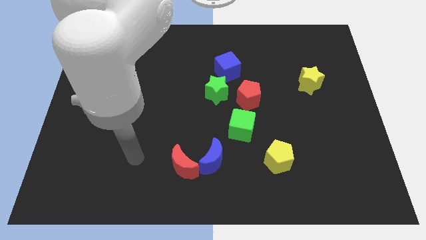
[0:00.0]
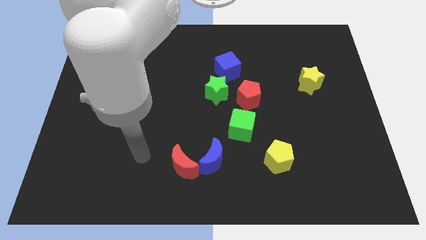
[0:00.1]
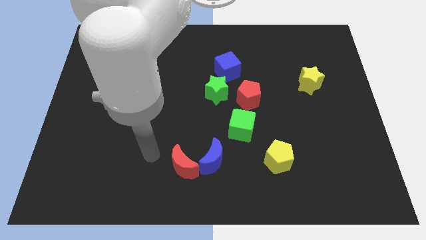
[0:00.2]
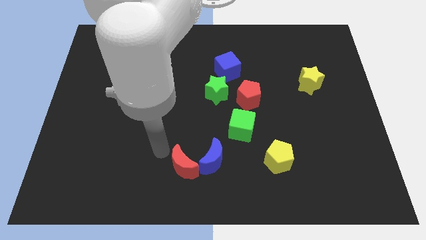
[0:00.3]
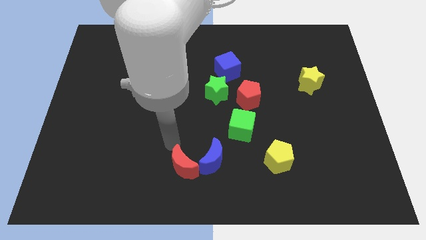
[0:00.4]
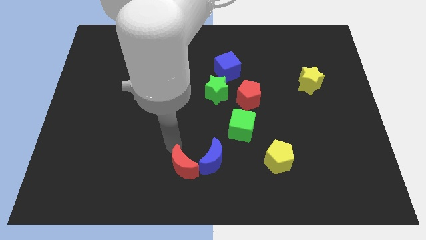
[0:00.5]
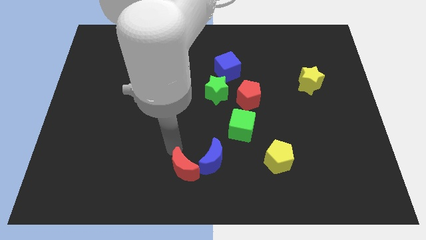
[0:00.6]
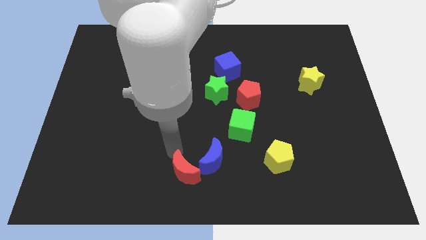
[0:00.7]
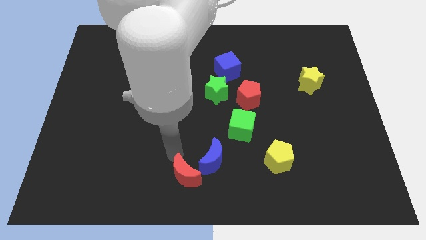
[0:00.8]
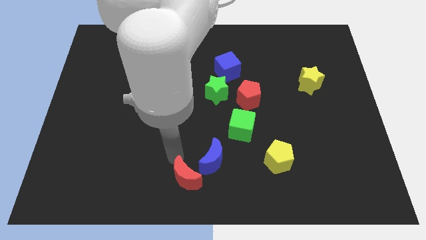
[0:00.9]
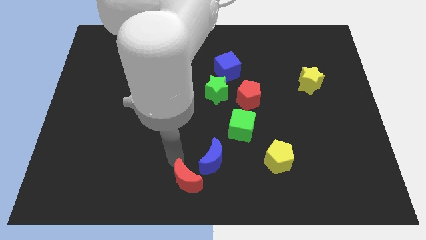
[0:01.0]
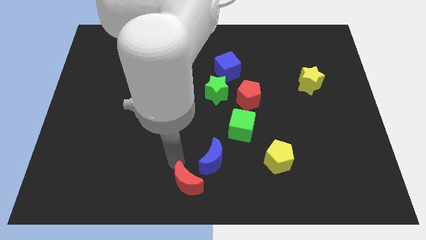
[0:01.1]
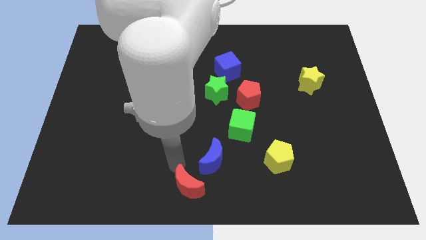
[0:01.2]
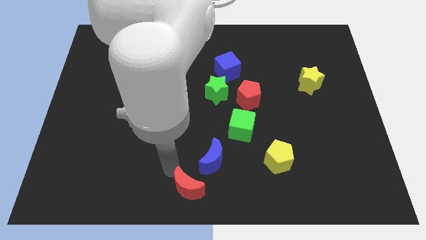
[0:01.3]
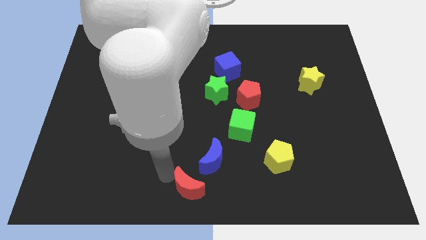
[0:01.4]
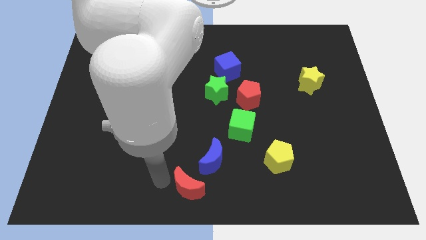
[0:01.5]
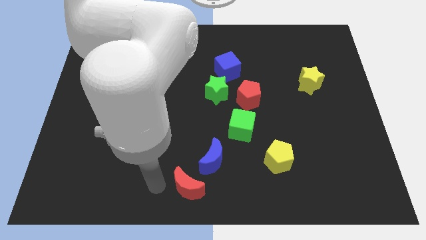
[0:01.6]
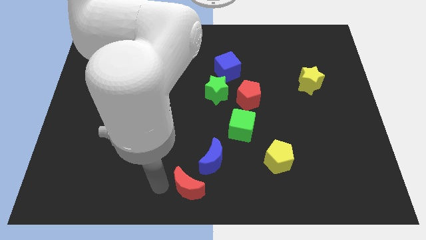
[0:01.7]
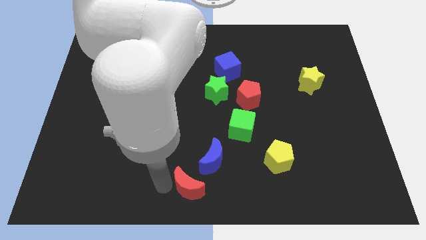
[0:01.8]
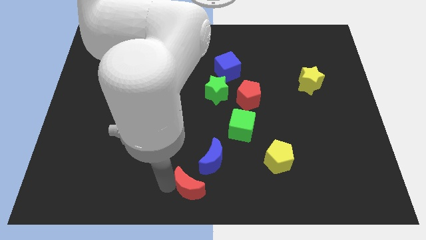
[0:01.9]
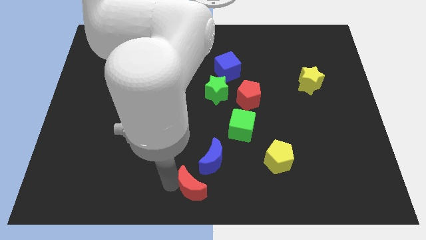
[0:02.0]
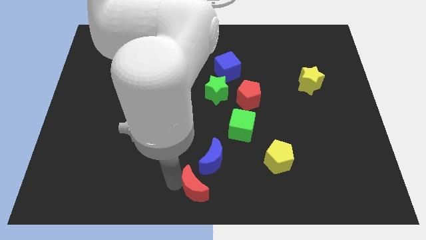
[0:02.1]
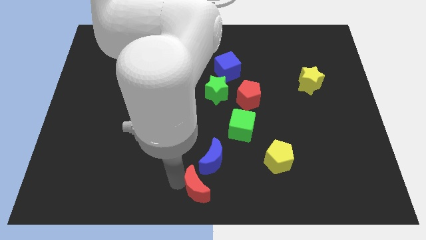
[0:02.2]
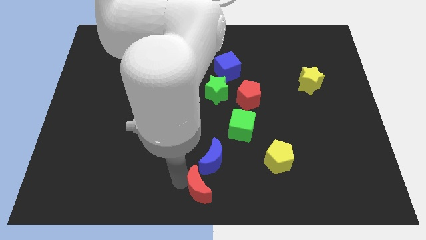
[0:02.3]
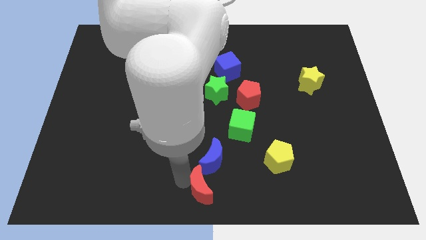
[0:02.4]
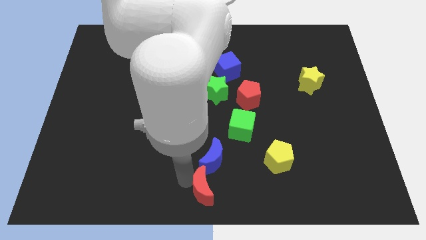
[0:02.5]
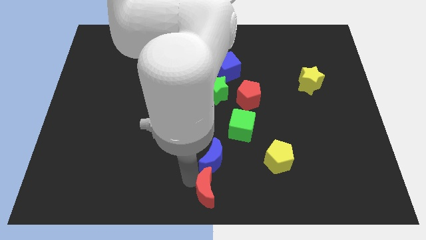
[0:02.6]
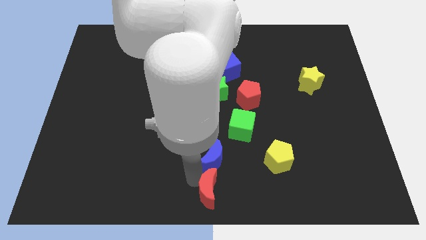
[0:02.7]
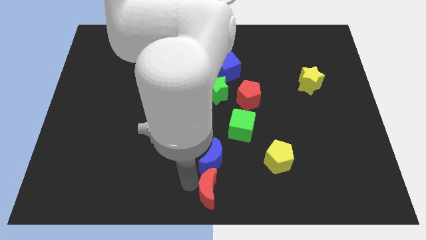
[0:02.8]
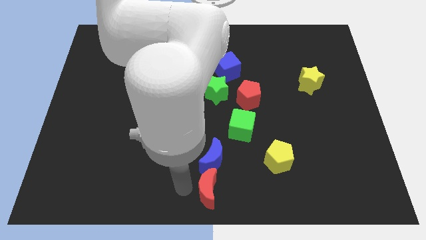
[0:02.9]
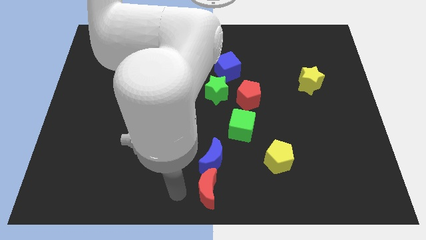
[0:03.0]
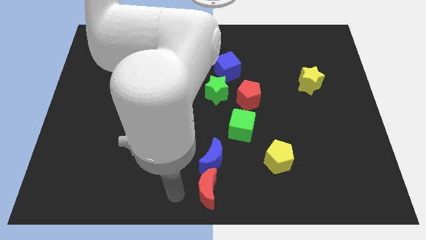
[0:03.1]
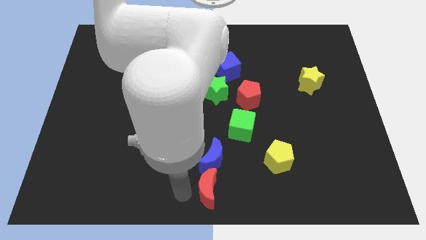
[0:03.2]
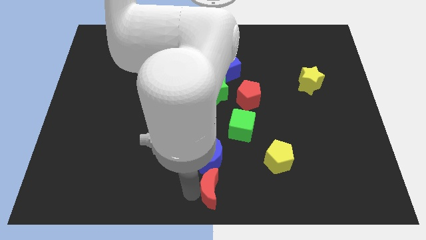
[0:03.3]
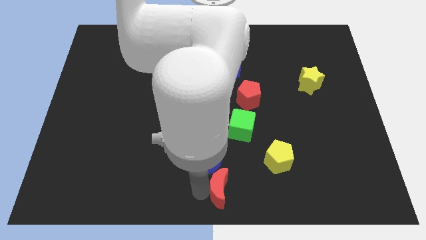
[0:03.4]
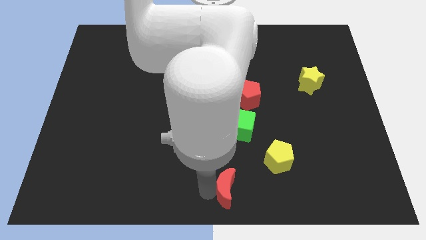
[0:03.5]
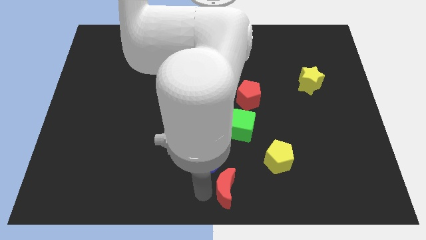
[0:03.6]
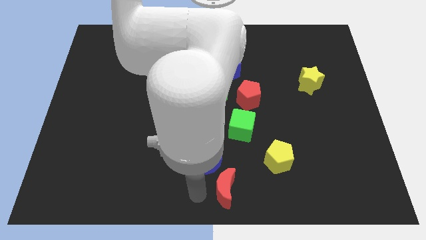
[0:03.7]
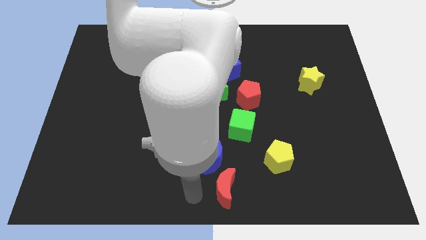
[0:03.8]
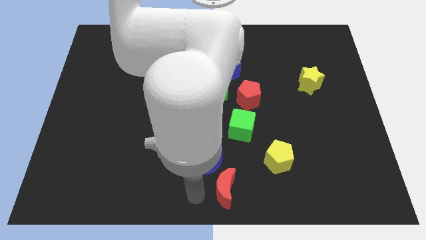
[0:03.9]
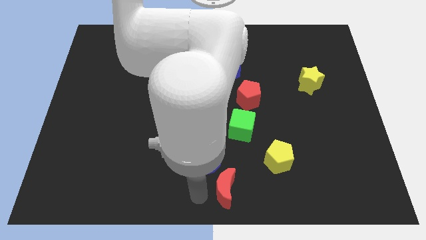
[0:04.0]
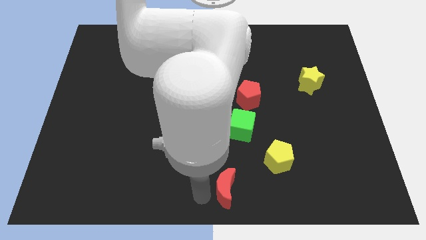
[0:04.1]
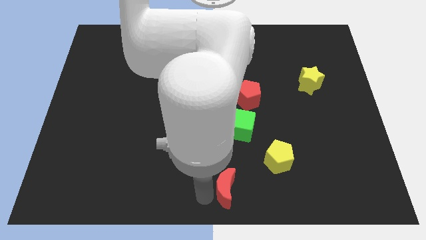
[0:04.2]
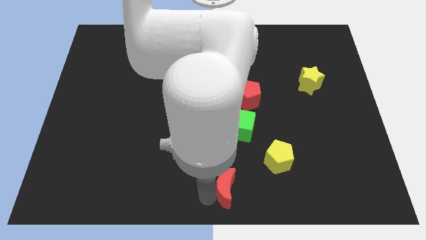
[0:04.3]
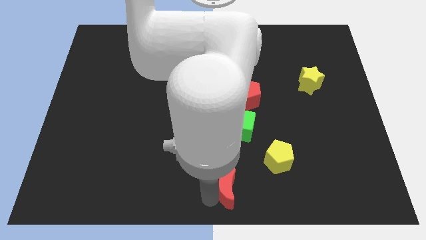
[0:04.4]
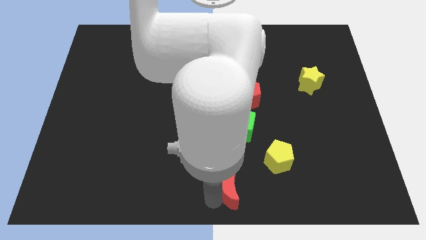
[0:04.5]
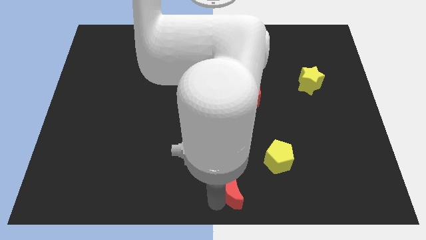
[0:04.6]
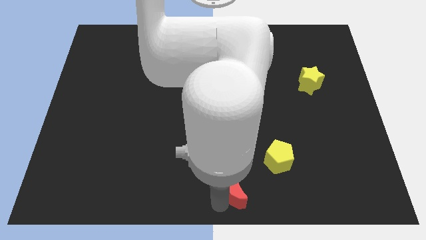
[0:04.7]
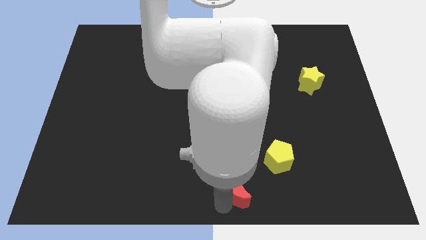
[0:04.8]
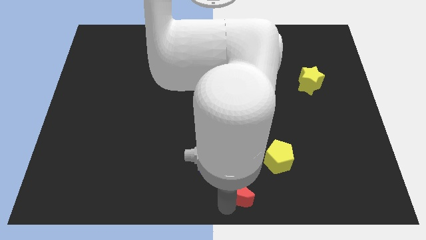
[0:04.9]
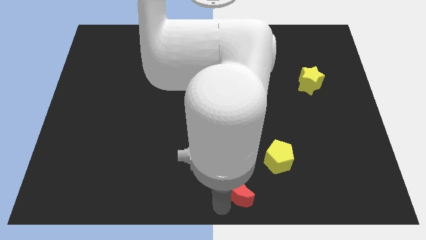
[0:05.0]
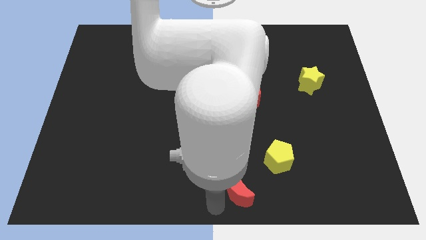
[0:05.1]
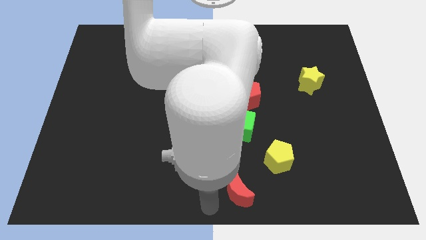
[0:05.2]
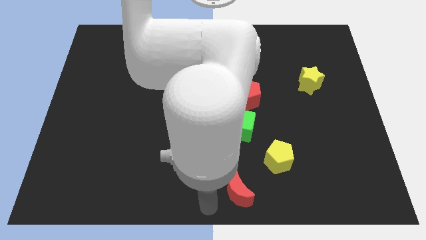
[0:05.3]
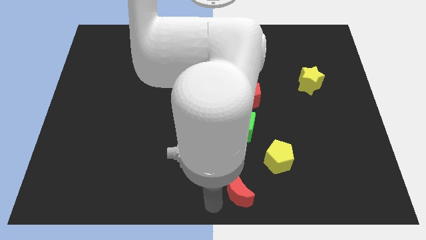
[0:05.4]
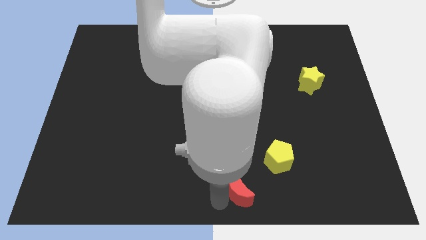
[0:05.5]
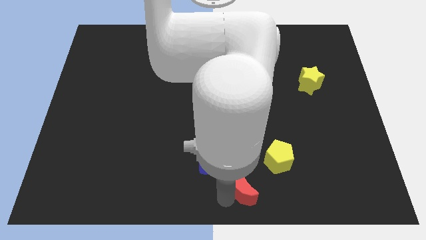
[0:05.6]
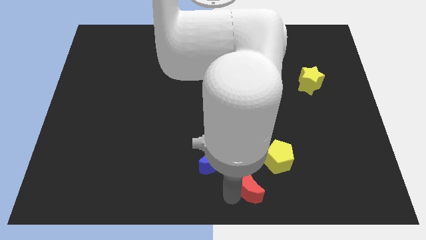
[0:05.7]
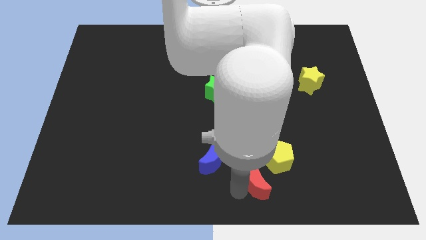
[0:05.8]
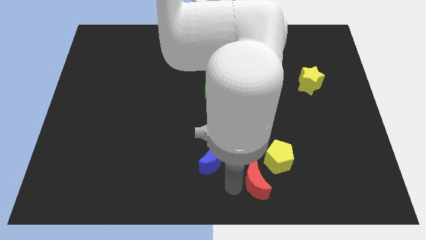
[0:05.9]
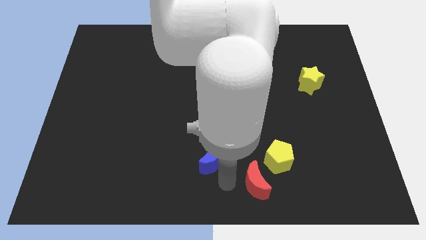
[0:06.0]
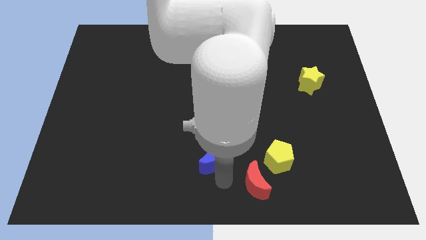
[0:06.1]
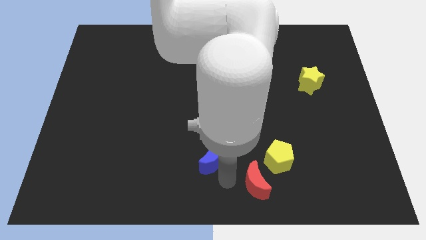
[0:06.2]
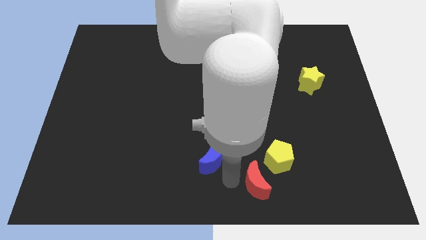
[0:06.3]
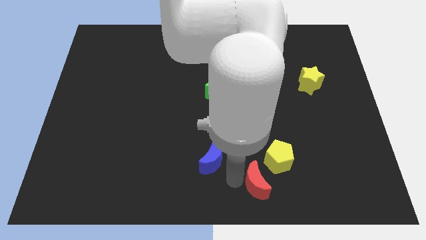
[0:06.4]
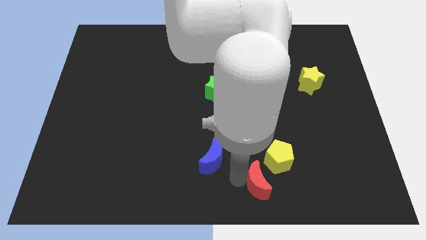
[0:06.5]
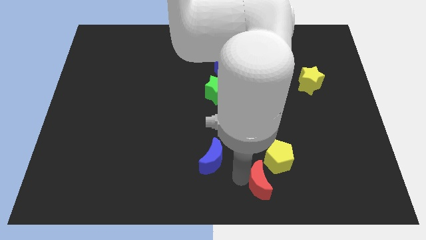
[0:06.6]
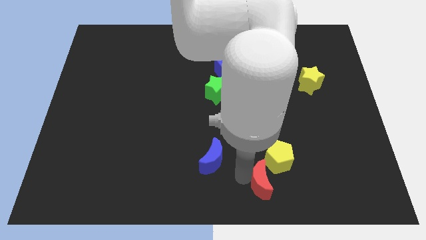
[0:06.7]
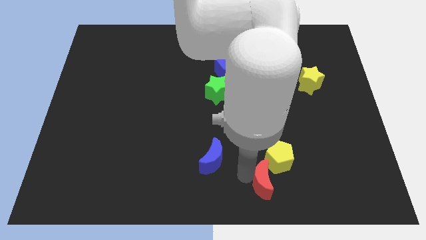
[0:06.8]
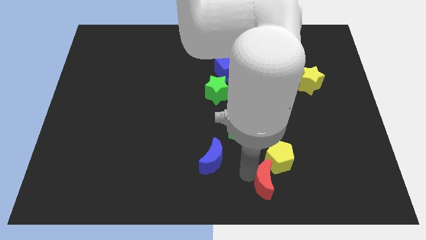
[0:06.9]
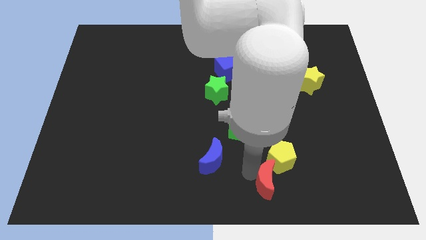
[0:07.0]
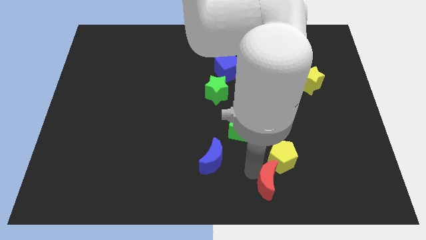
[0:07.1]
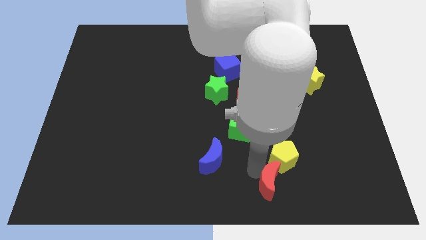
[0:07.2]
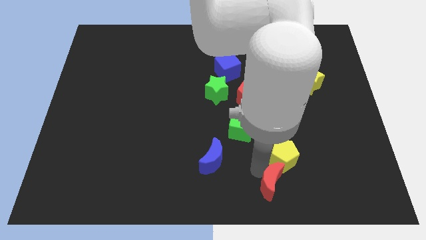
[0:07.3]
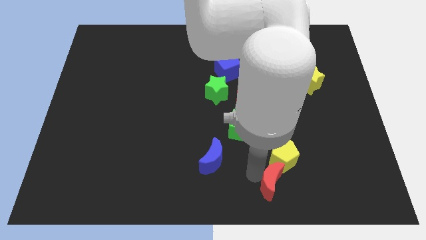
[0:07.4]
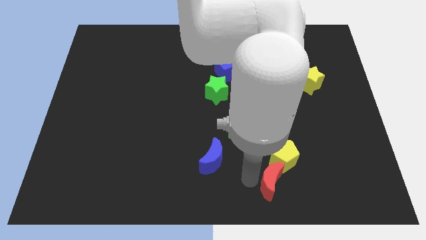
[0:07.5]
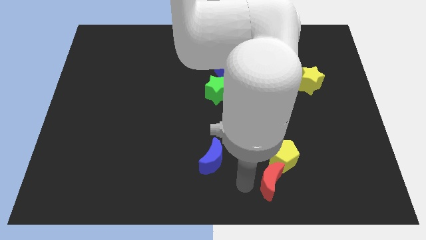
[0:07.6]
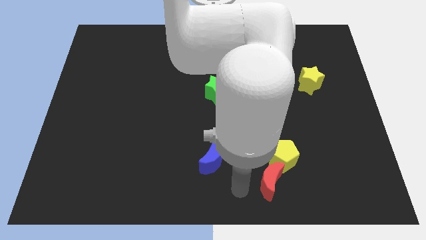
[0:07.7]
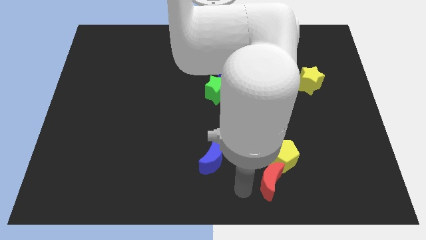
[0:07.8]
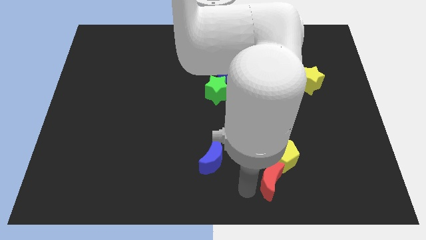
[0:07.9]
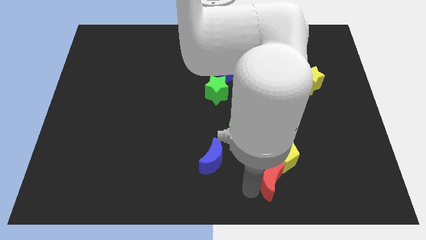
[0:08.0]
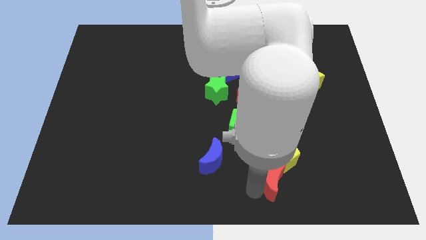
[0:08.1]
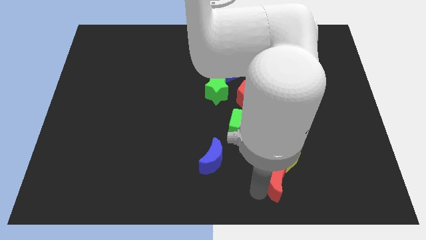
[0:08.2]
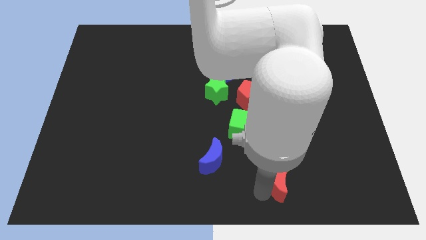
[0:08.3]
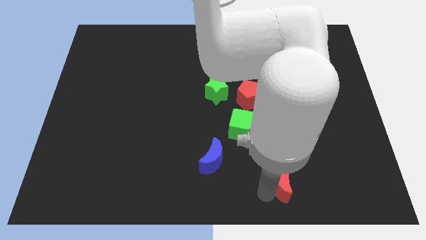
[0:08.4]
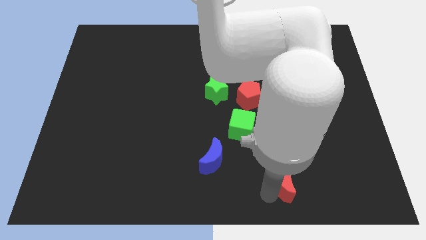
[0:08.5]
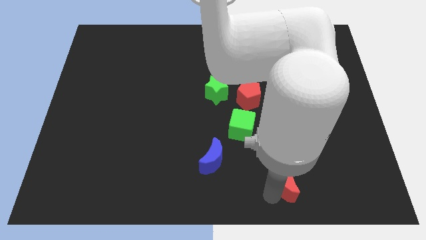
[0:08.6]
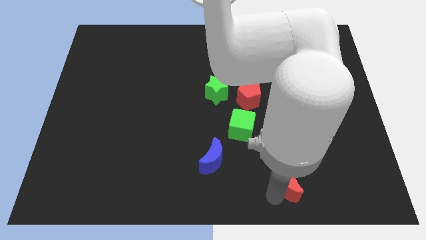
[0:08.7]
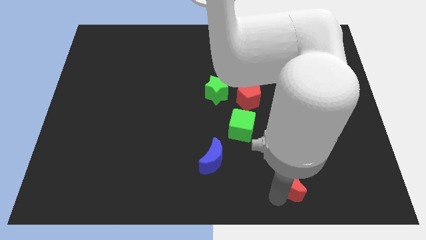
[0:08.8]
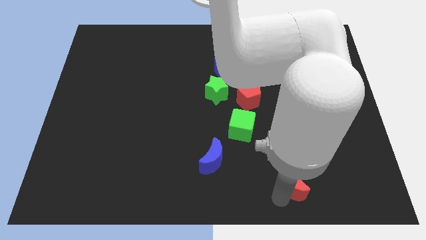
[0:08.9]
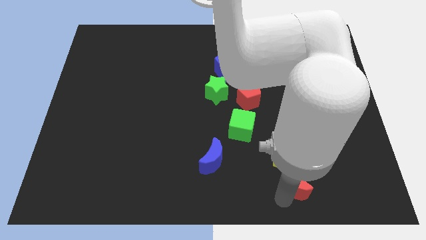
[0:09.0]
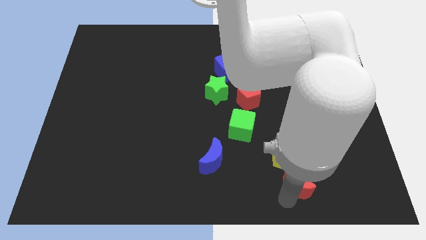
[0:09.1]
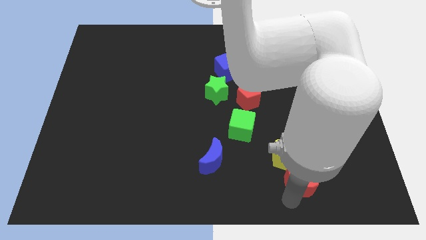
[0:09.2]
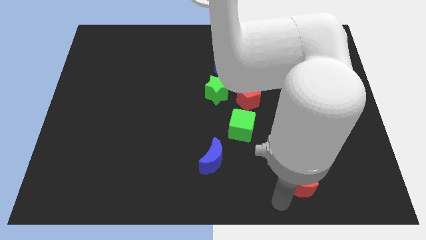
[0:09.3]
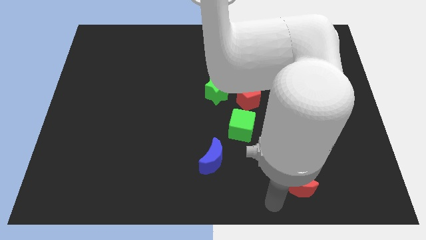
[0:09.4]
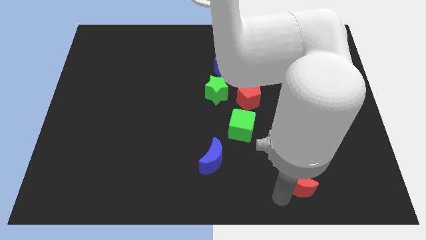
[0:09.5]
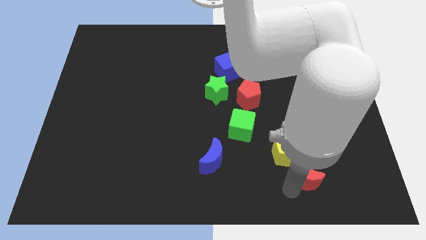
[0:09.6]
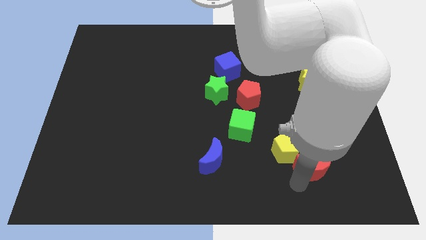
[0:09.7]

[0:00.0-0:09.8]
move the red moon just right of the yellow pentagon
